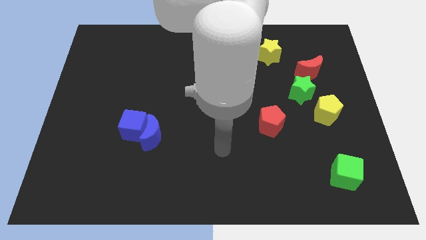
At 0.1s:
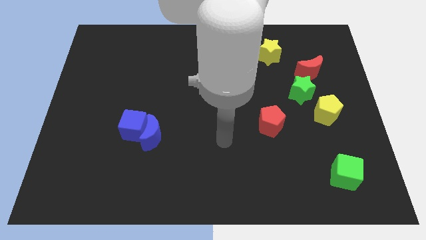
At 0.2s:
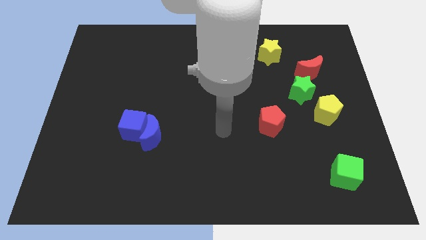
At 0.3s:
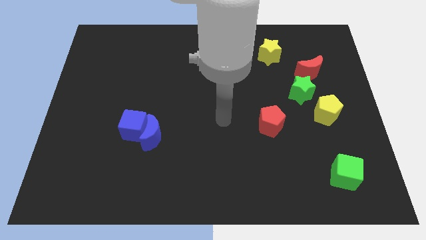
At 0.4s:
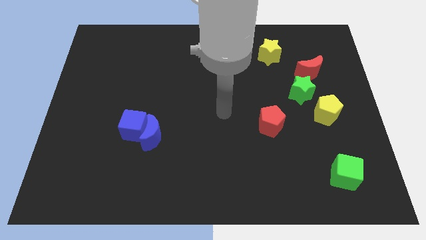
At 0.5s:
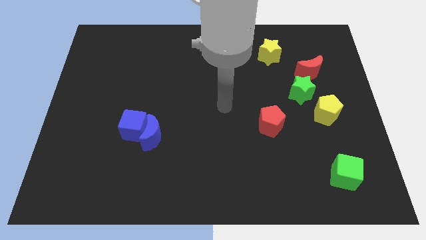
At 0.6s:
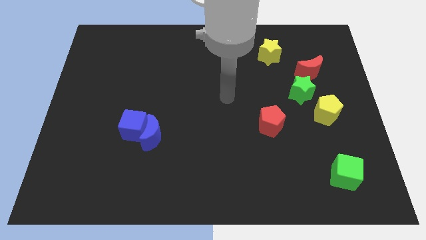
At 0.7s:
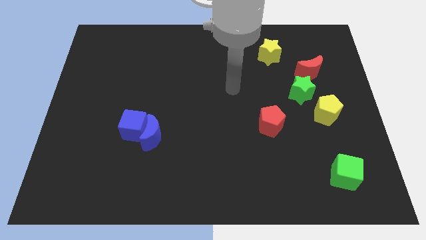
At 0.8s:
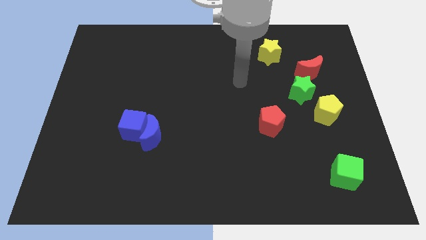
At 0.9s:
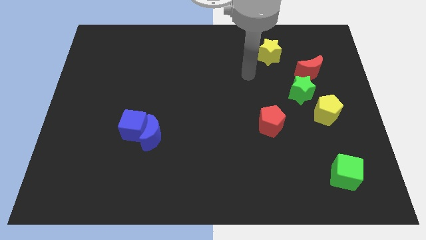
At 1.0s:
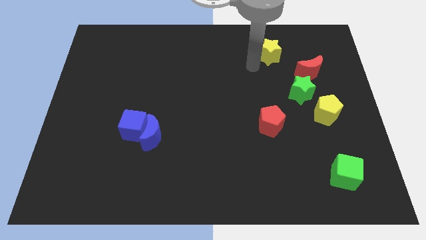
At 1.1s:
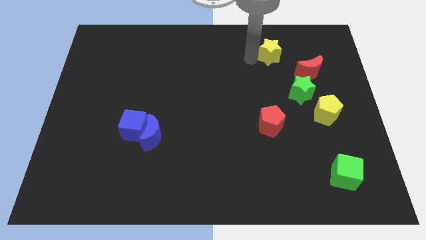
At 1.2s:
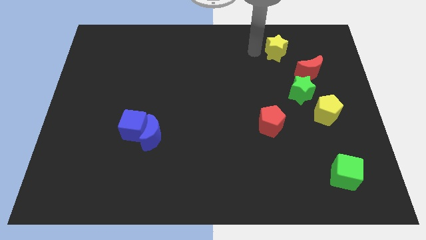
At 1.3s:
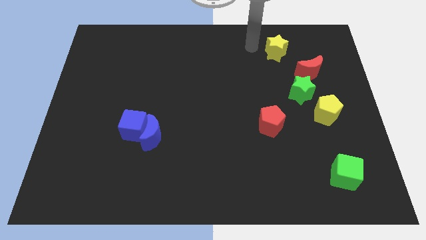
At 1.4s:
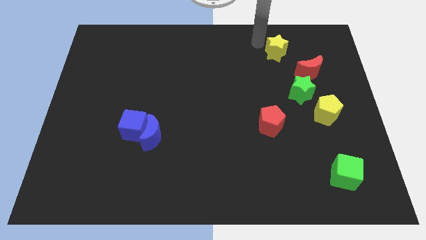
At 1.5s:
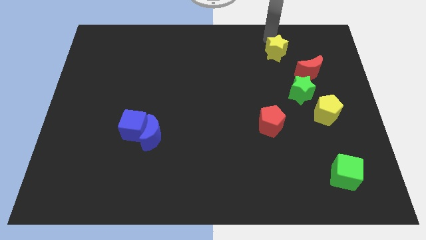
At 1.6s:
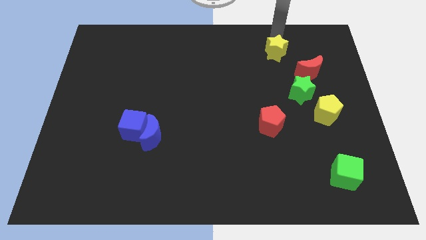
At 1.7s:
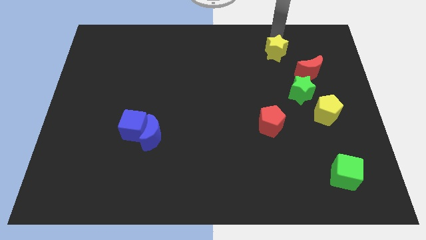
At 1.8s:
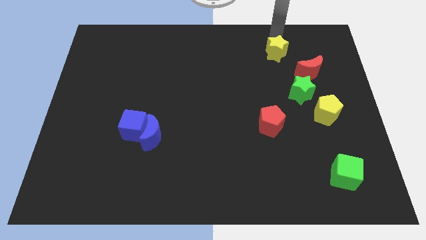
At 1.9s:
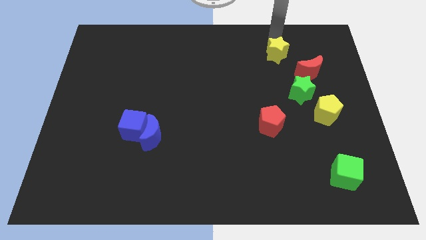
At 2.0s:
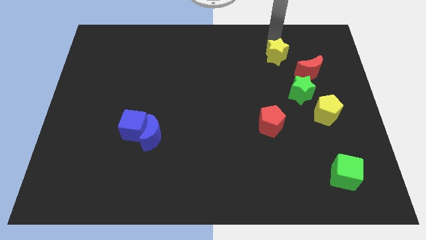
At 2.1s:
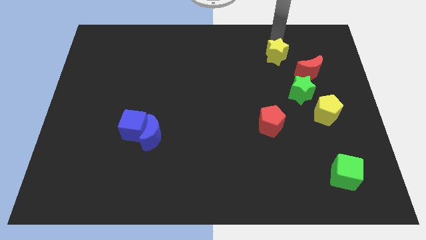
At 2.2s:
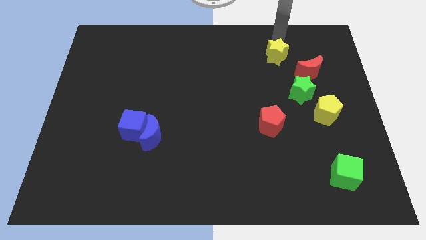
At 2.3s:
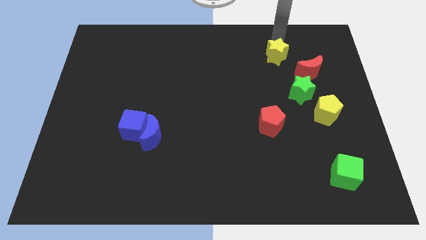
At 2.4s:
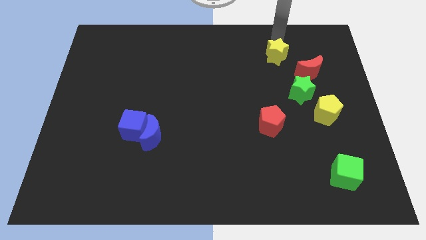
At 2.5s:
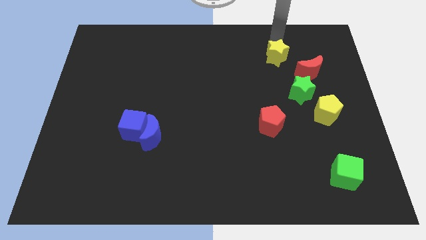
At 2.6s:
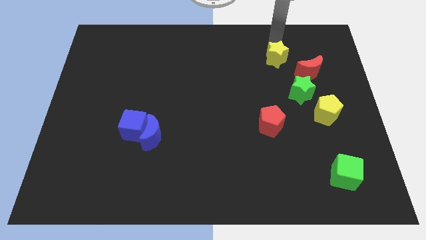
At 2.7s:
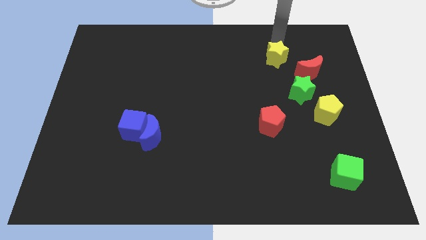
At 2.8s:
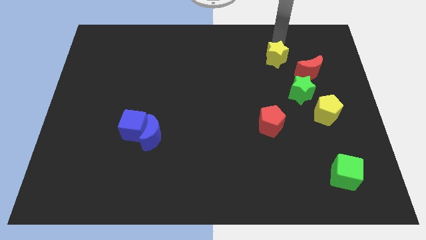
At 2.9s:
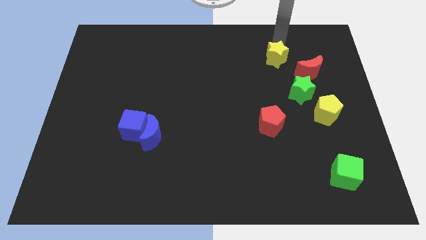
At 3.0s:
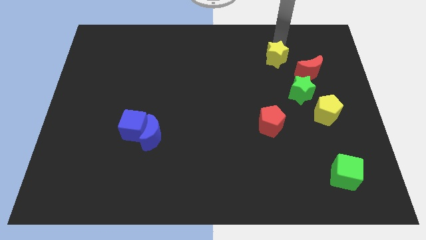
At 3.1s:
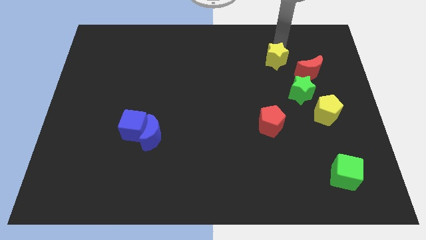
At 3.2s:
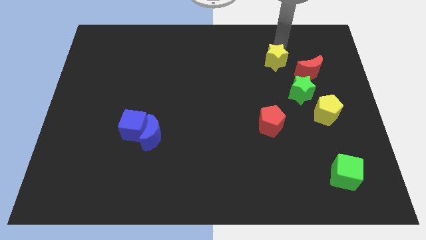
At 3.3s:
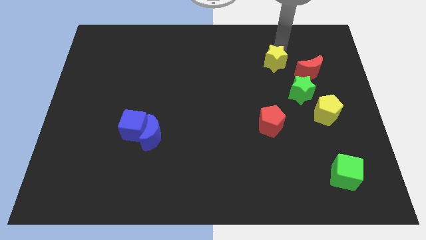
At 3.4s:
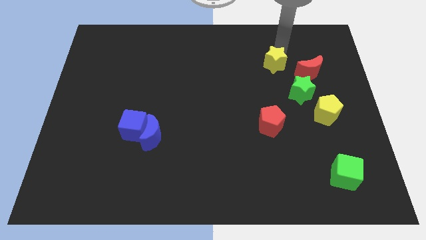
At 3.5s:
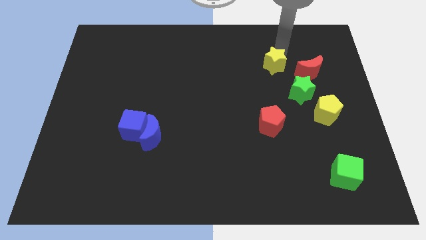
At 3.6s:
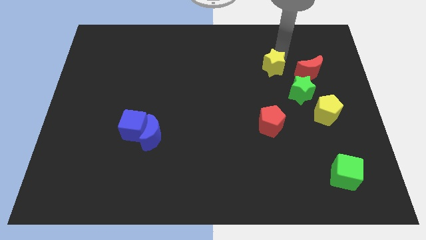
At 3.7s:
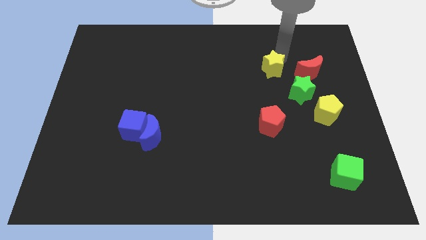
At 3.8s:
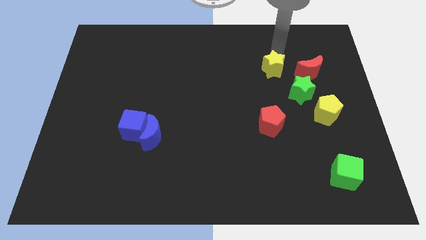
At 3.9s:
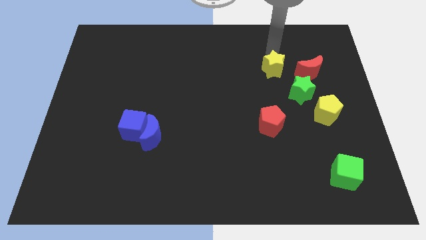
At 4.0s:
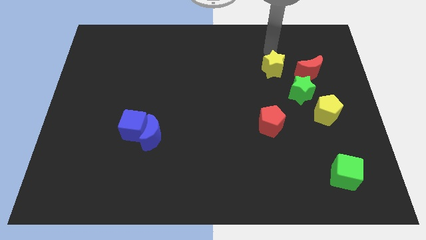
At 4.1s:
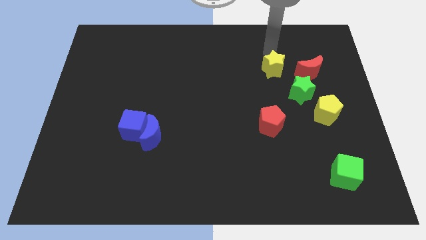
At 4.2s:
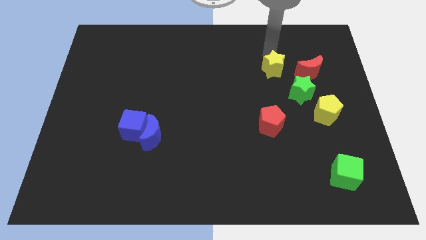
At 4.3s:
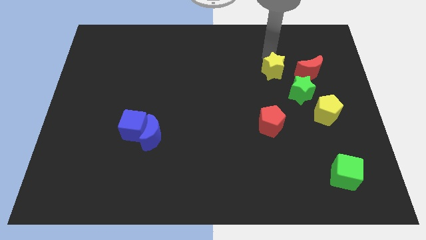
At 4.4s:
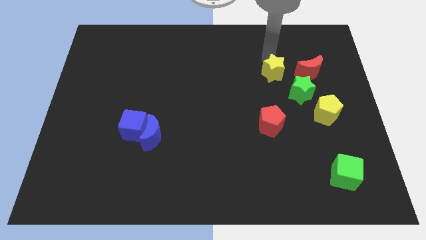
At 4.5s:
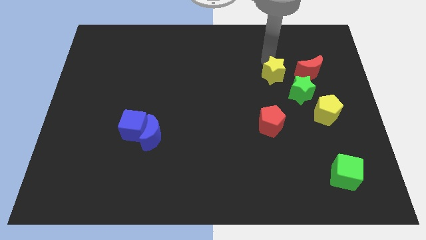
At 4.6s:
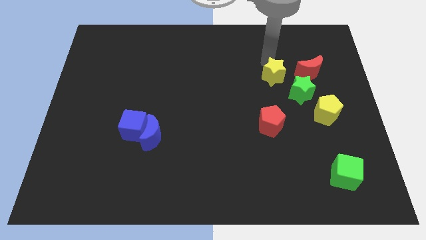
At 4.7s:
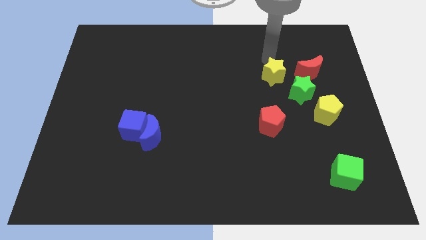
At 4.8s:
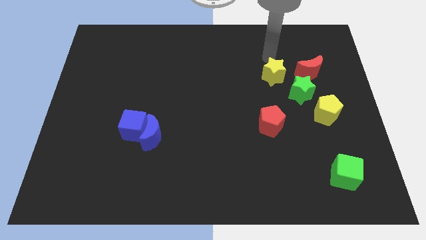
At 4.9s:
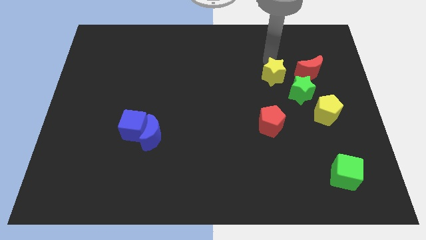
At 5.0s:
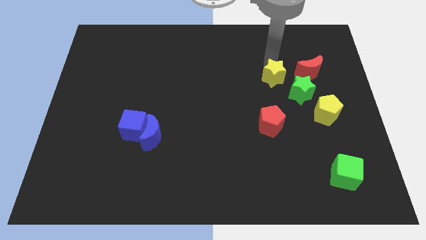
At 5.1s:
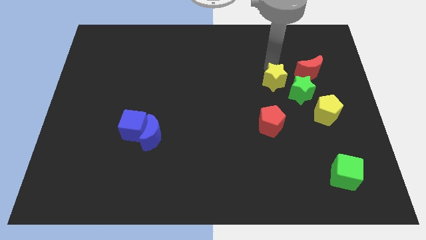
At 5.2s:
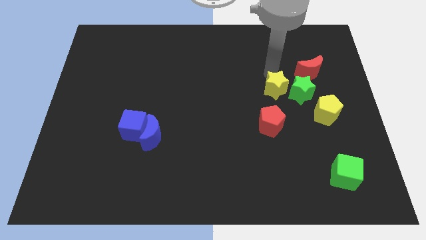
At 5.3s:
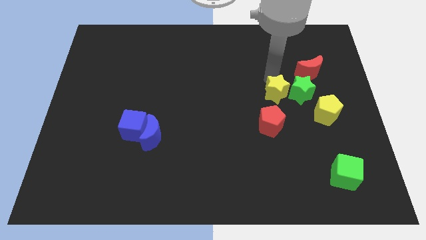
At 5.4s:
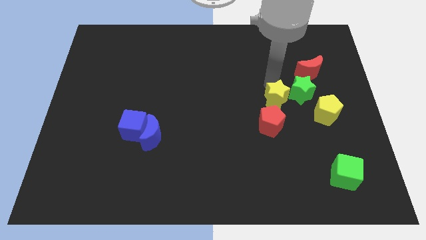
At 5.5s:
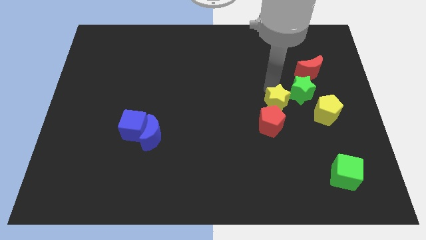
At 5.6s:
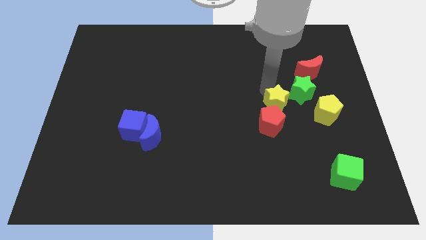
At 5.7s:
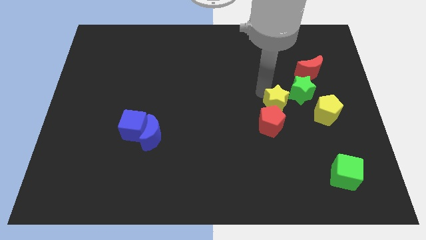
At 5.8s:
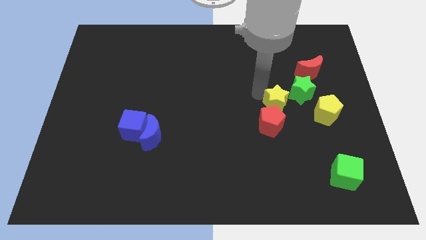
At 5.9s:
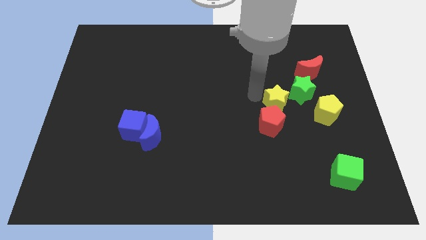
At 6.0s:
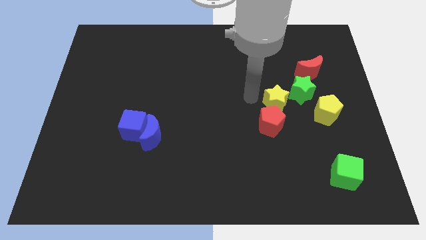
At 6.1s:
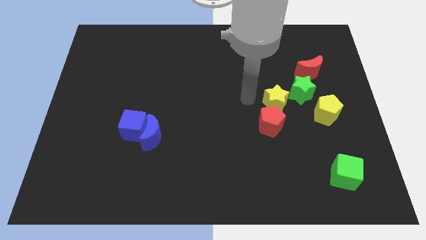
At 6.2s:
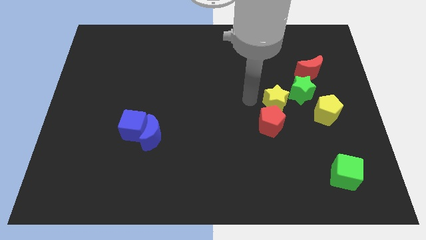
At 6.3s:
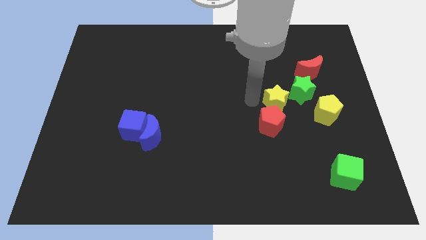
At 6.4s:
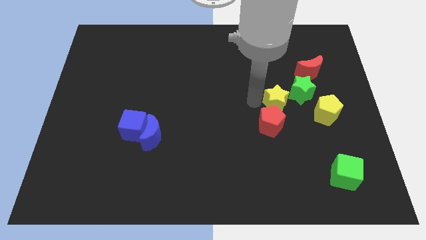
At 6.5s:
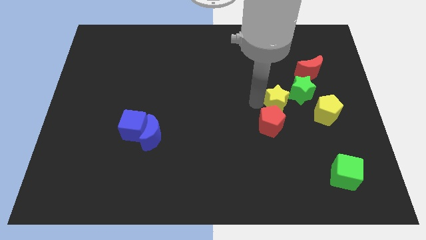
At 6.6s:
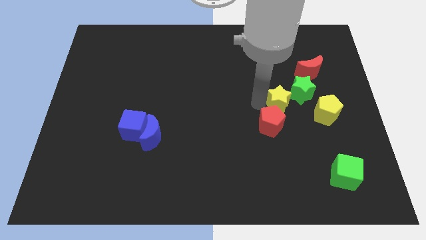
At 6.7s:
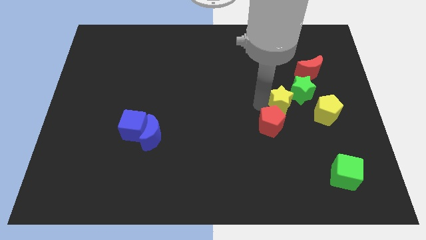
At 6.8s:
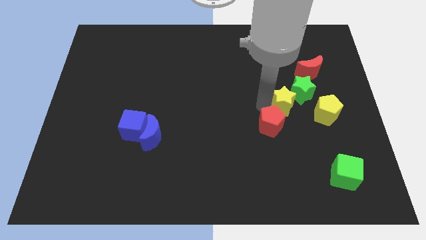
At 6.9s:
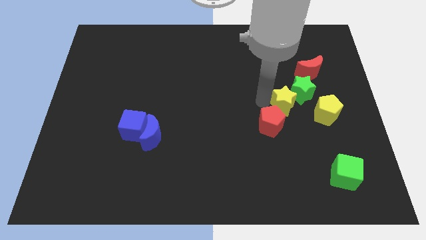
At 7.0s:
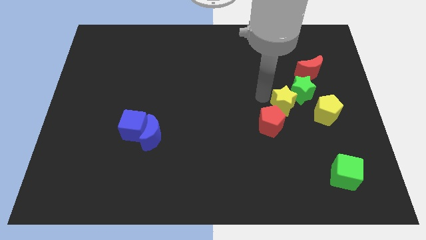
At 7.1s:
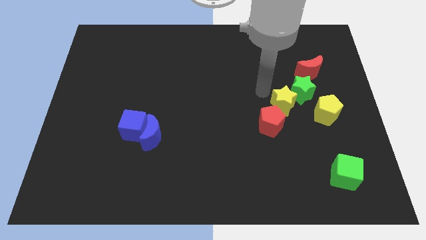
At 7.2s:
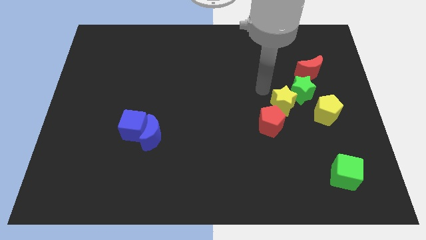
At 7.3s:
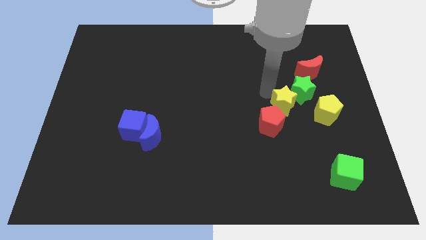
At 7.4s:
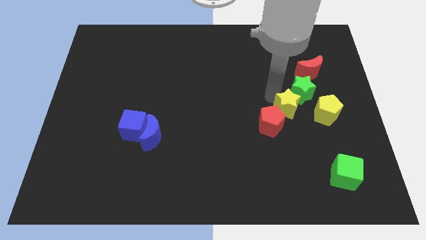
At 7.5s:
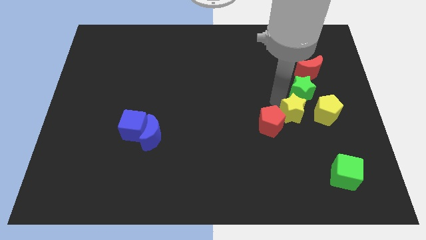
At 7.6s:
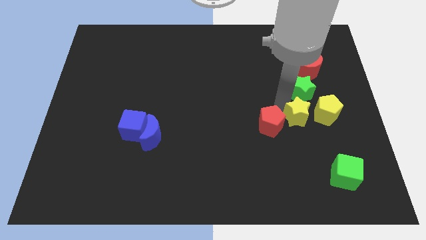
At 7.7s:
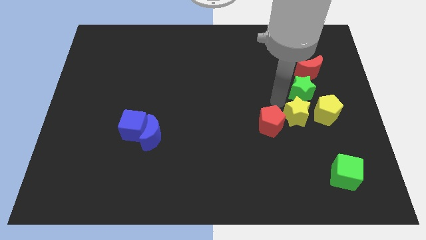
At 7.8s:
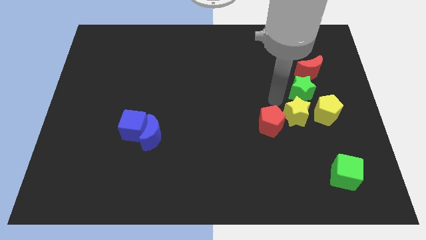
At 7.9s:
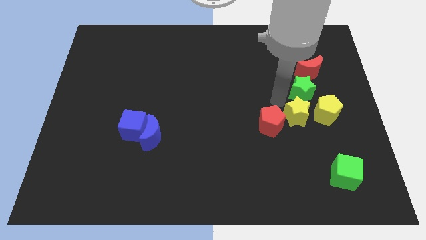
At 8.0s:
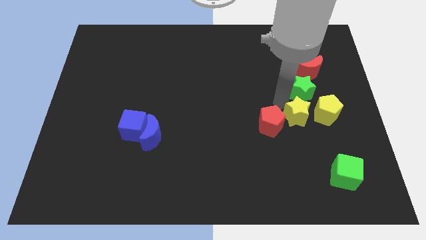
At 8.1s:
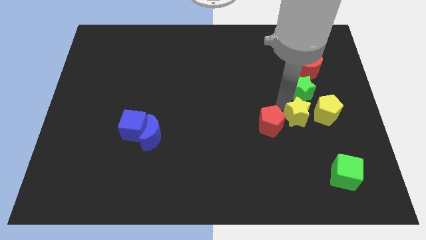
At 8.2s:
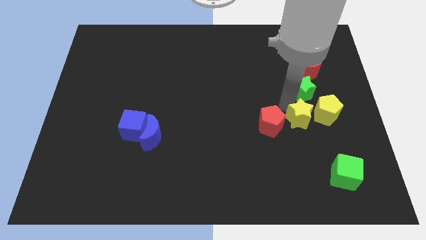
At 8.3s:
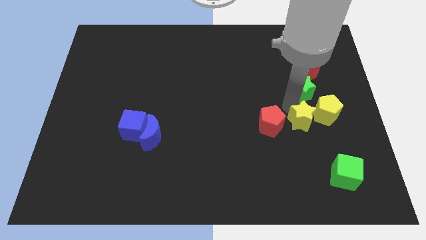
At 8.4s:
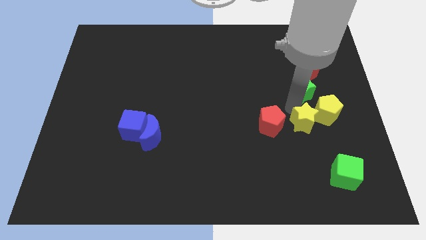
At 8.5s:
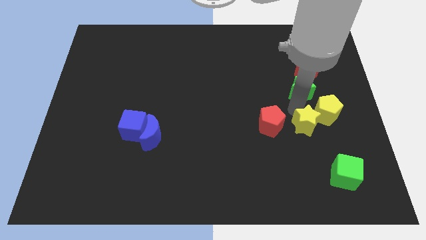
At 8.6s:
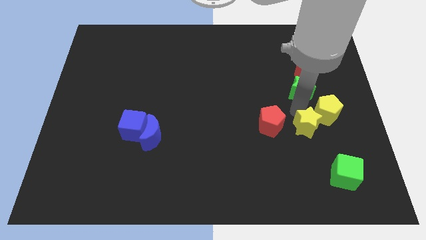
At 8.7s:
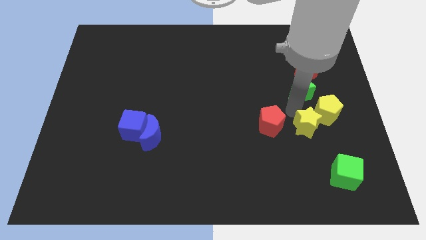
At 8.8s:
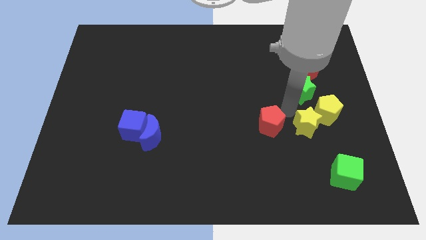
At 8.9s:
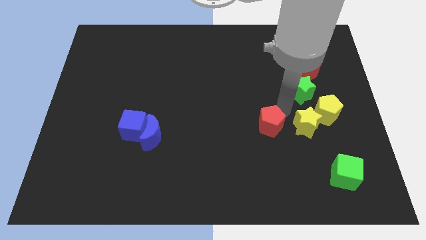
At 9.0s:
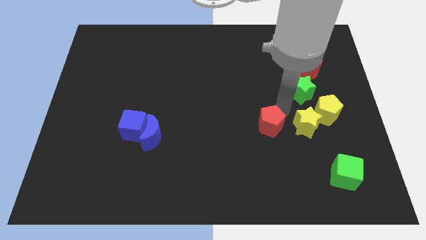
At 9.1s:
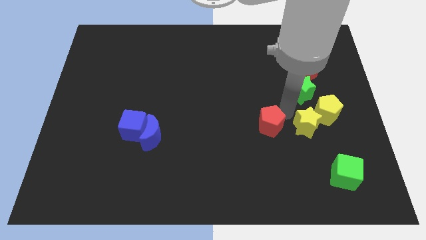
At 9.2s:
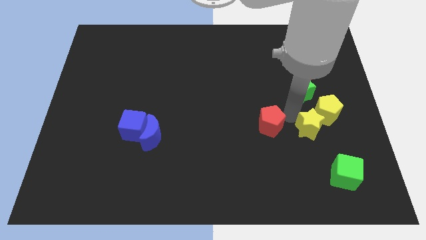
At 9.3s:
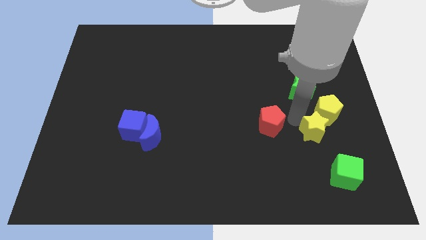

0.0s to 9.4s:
push the yellow star to the top of the green cube
